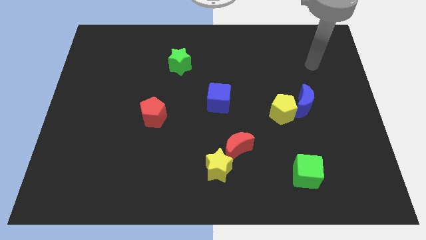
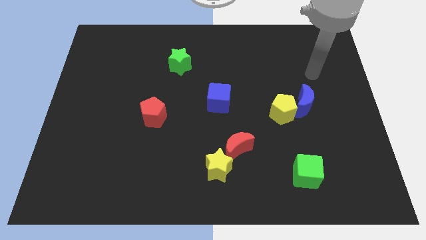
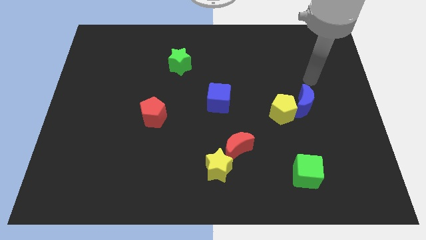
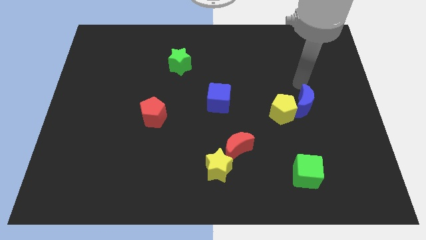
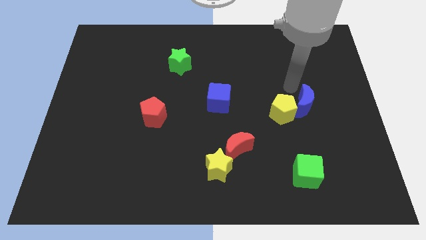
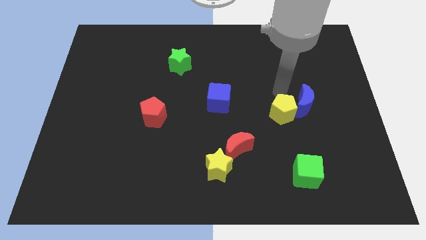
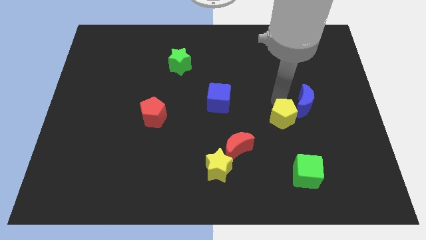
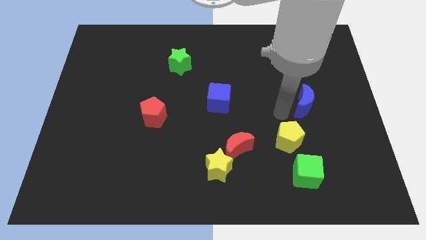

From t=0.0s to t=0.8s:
separate the blue moon from the yellow pentagon

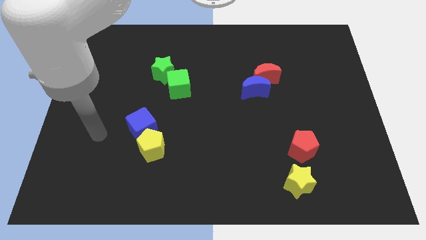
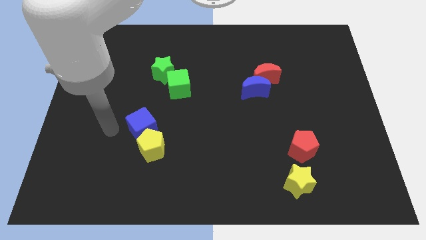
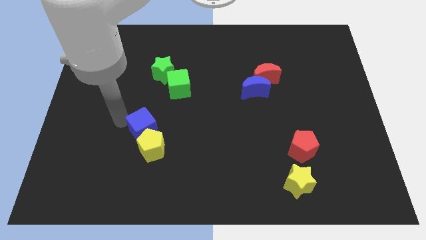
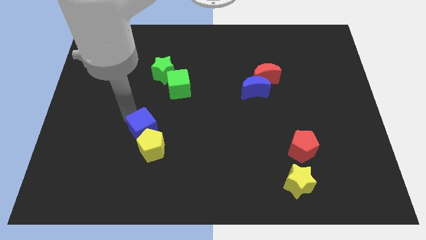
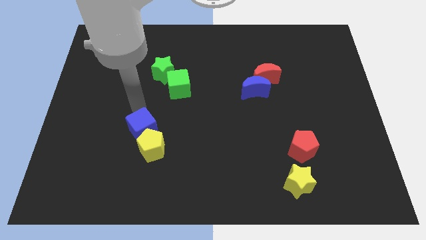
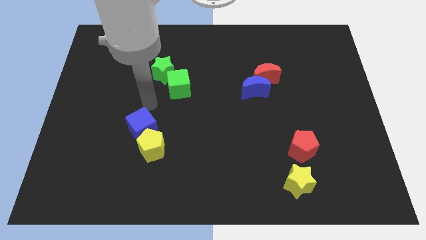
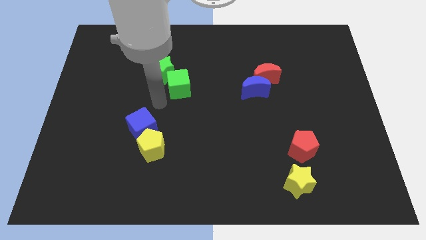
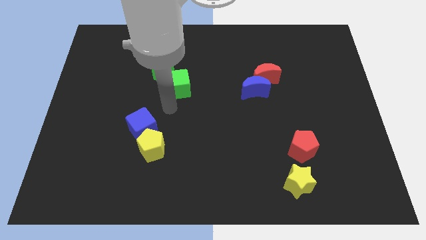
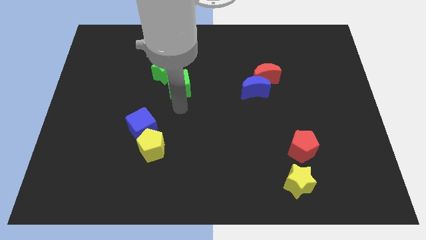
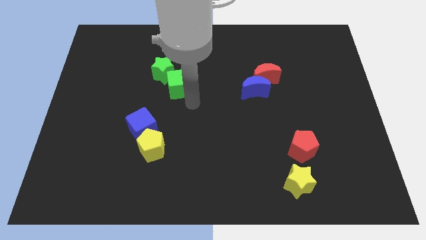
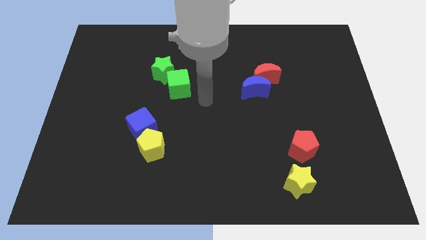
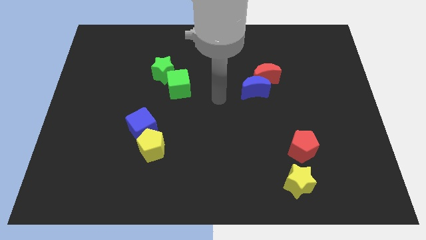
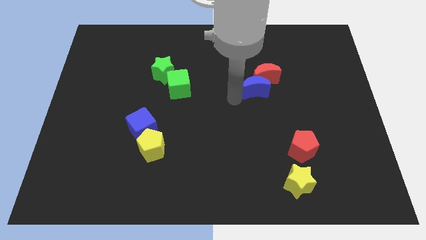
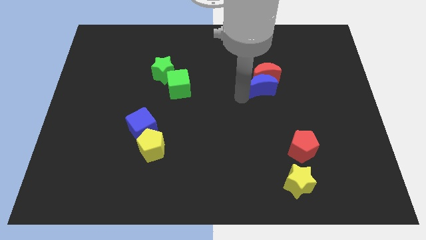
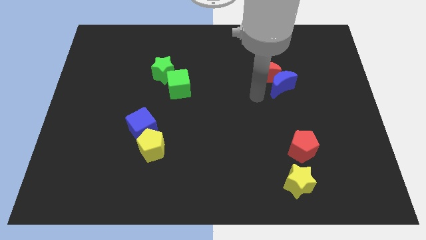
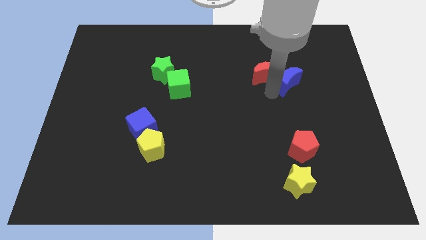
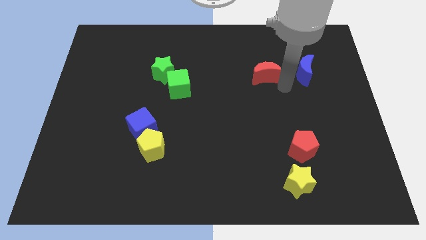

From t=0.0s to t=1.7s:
pull the red moon apart from the blue moon

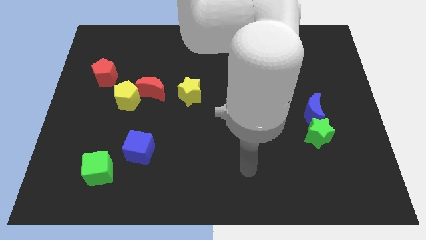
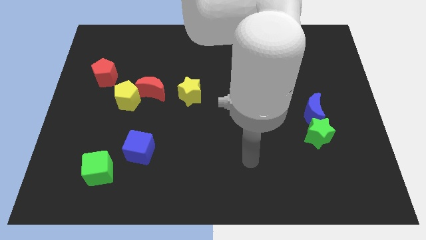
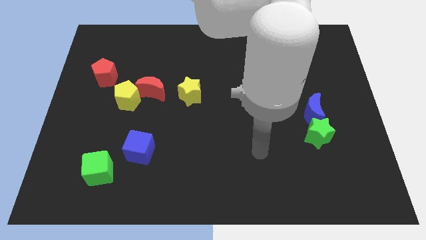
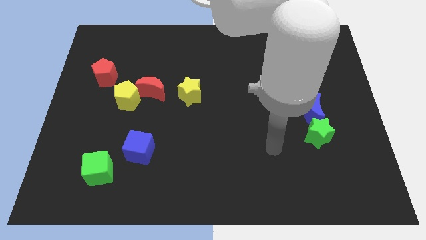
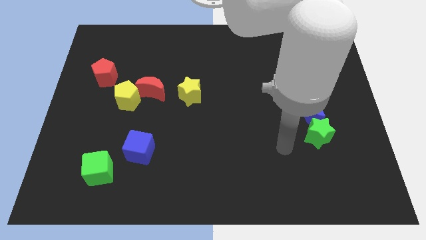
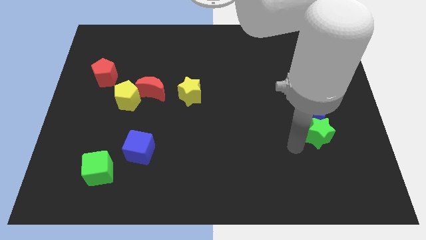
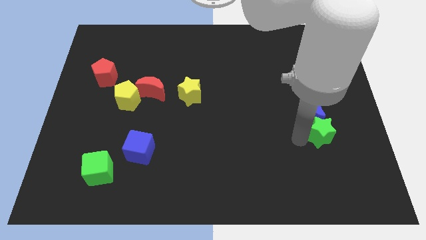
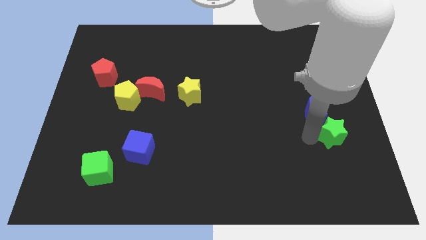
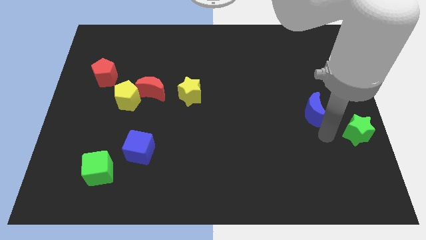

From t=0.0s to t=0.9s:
pull the blue moon apart from the green star

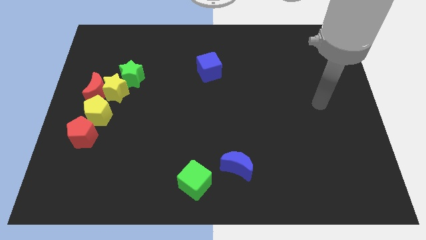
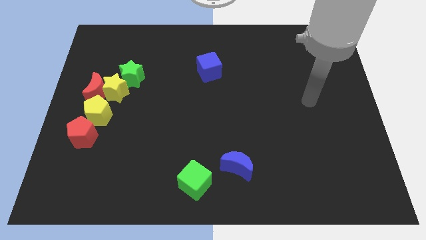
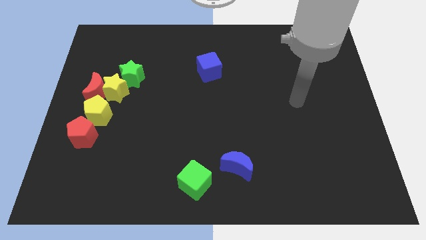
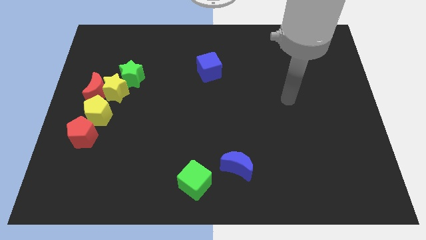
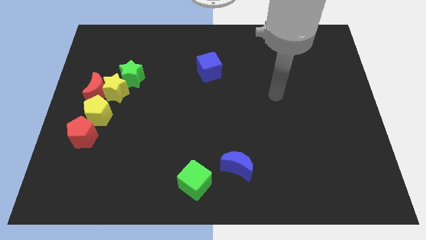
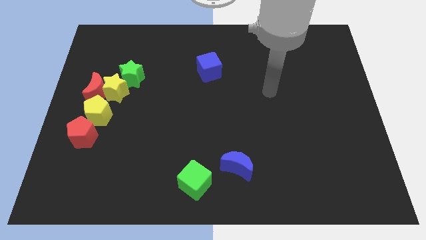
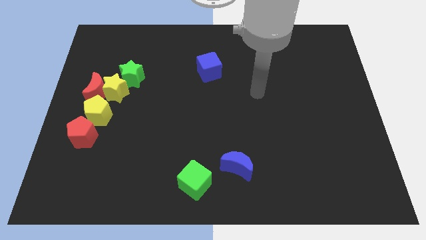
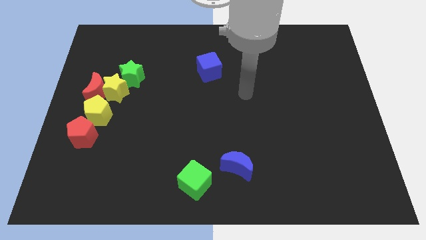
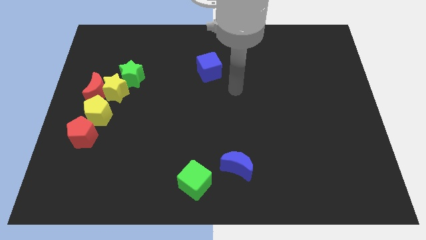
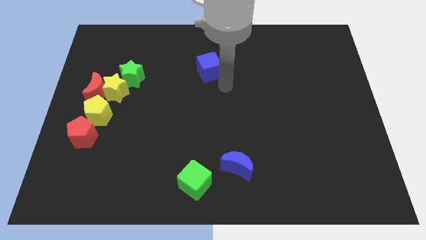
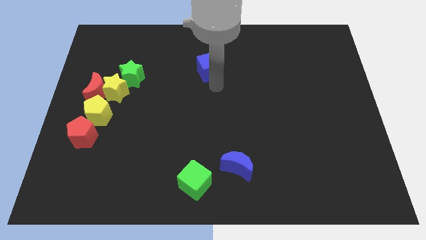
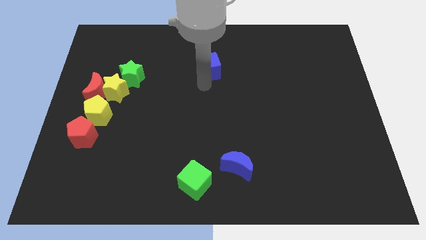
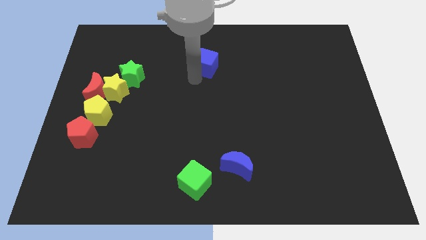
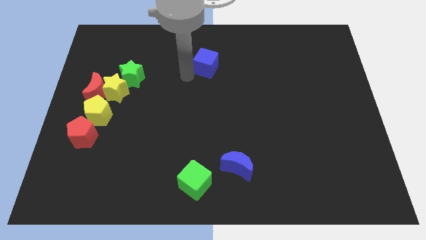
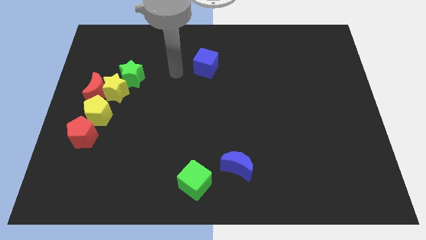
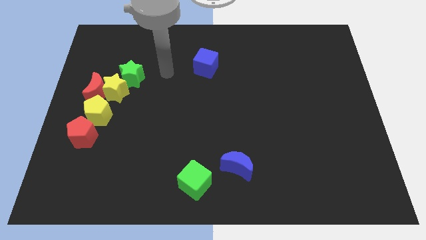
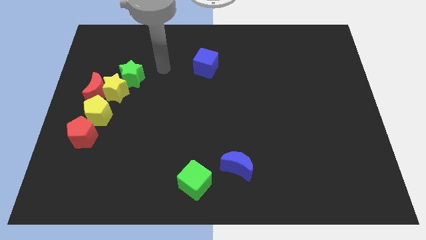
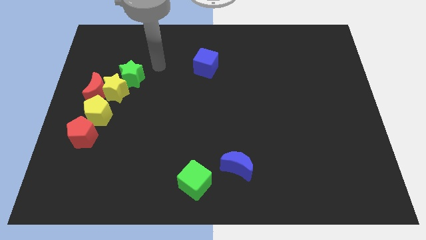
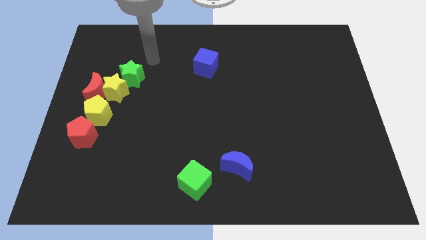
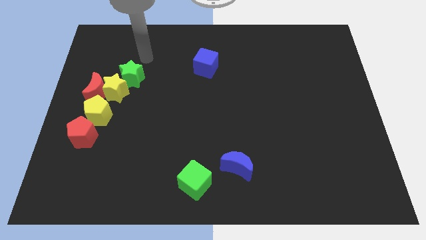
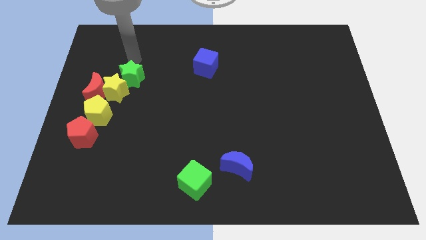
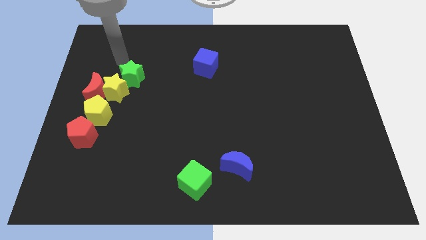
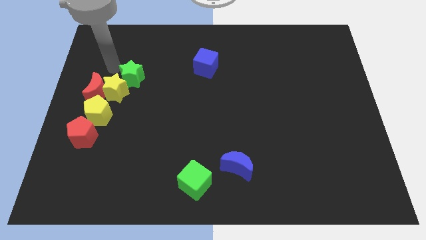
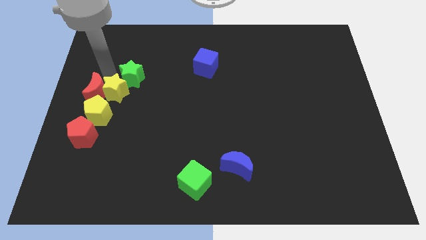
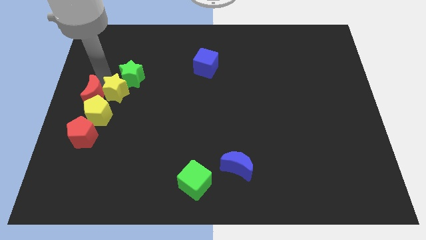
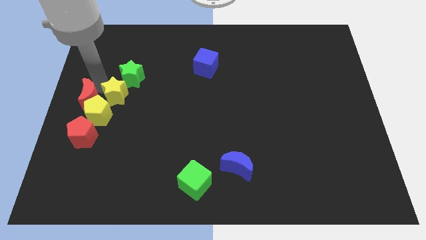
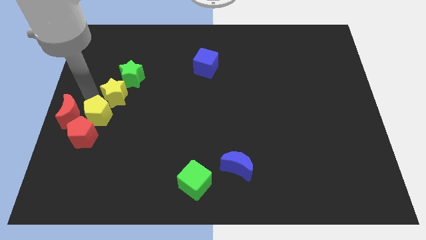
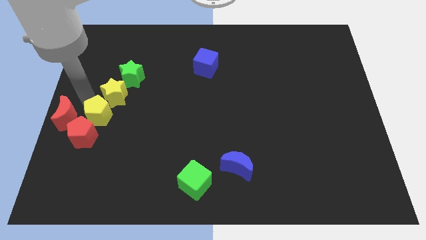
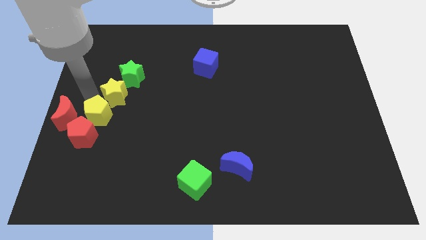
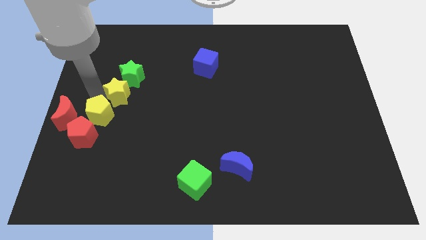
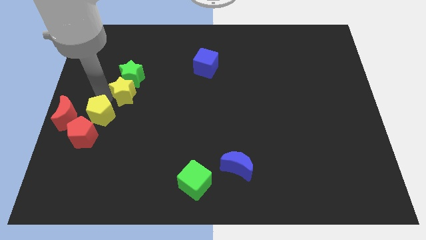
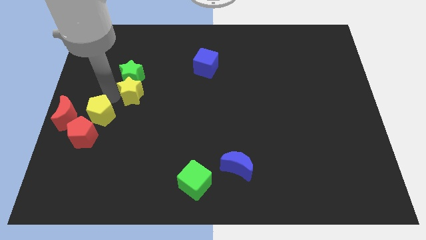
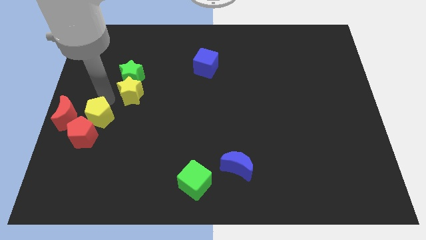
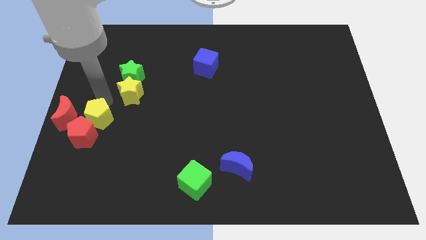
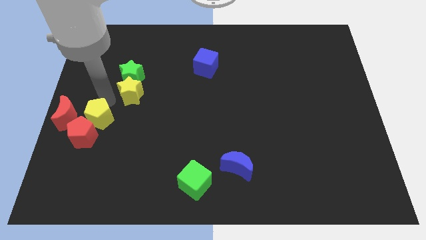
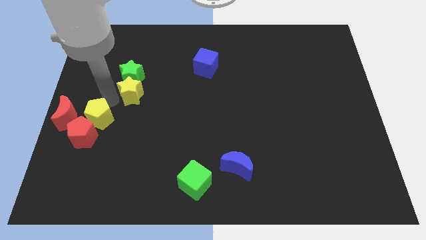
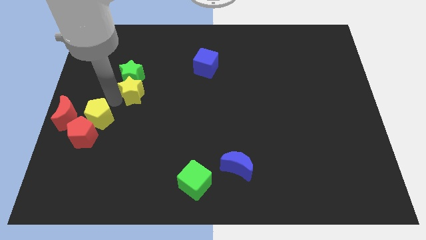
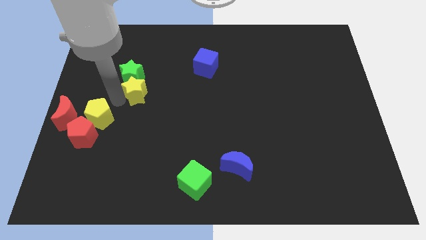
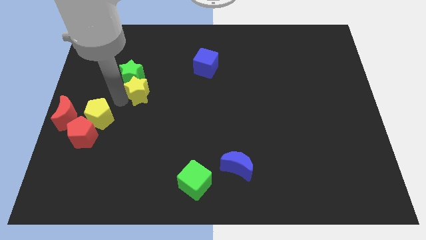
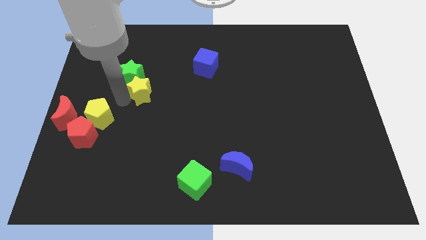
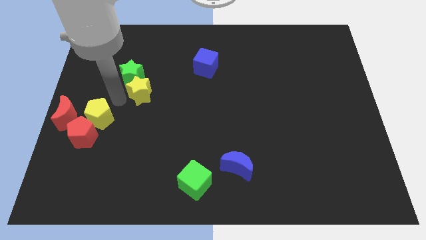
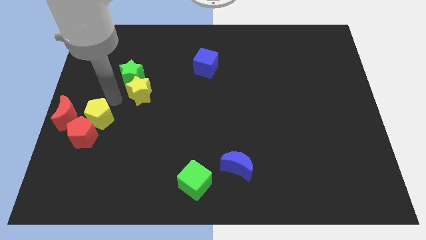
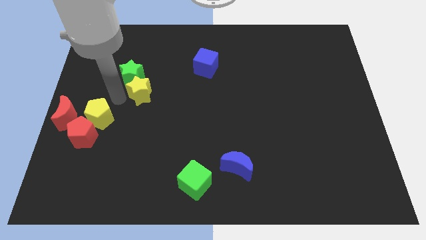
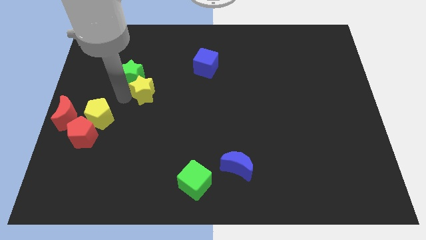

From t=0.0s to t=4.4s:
move the yellow star away from the red moon, green star, and yellow pentagon

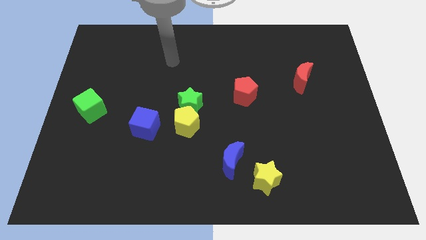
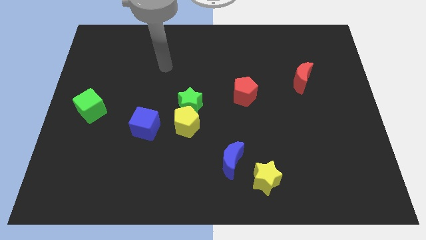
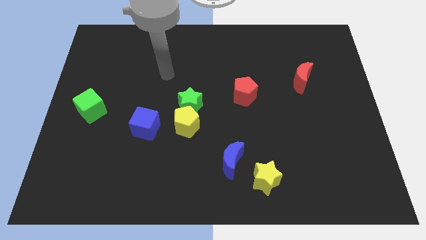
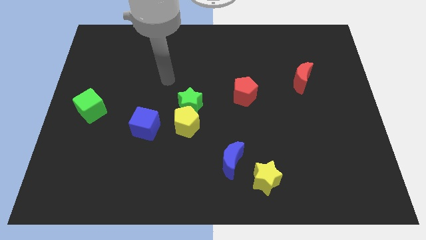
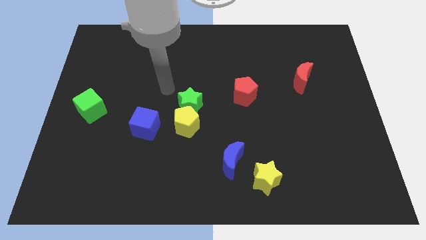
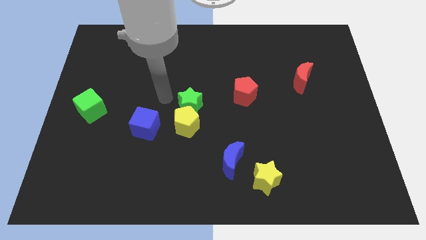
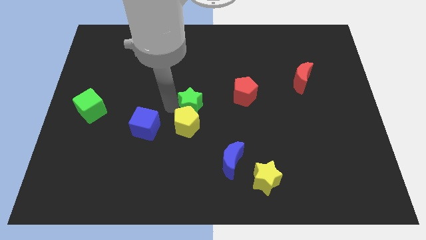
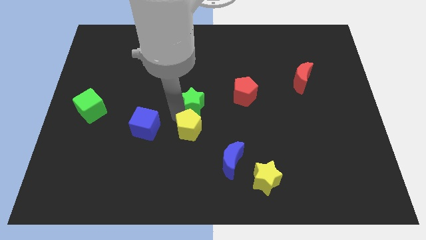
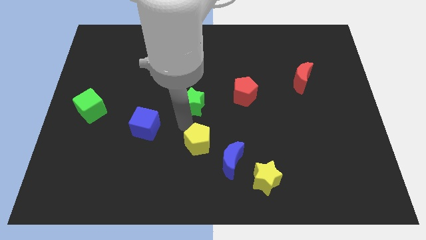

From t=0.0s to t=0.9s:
pull the green star apart from the yellow pentagon

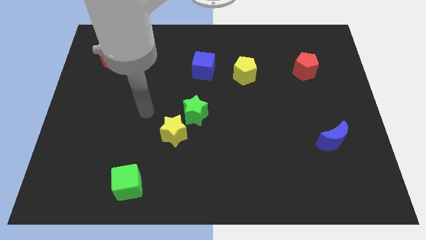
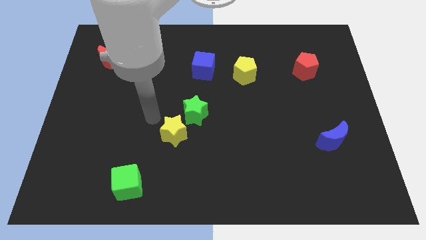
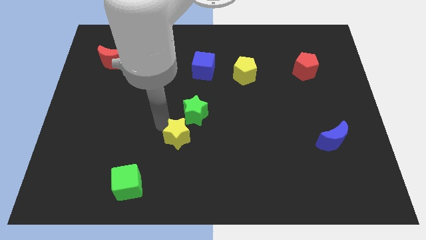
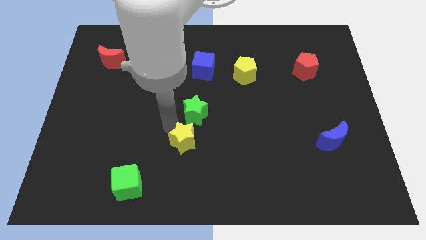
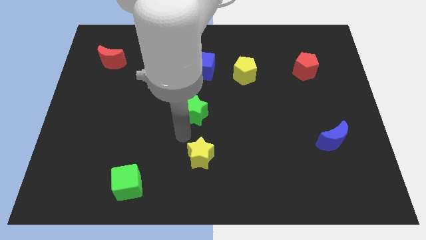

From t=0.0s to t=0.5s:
move the green star away from the yellow star
